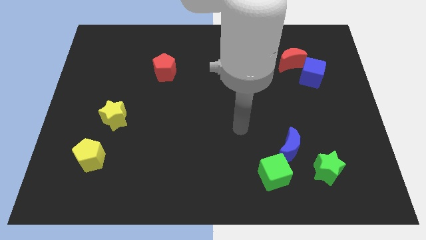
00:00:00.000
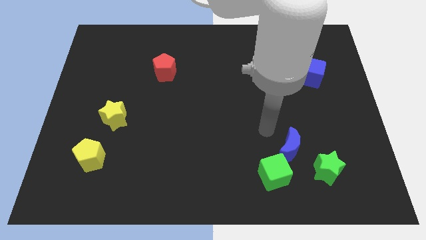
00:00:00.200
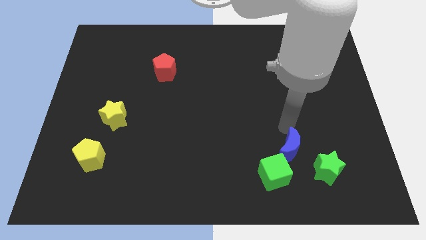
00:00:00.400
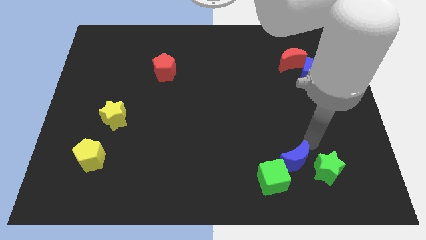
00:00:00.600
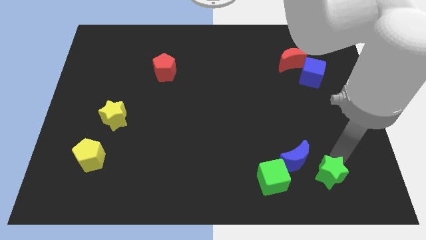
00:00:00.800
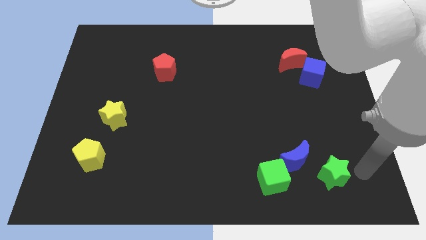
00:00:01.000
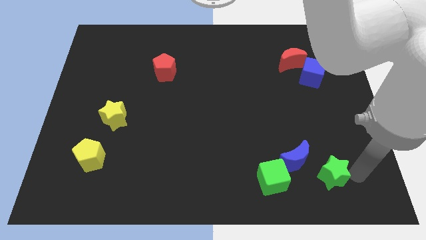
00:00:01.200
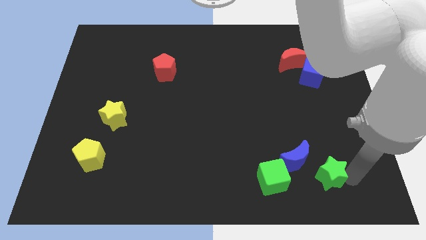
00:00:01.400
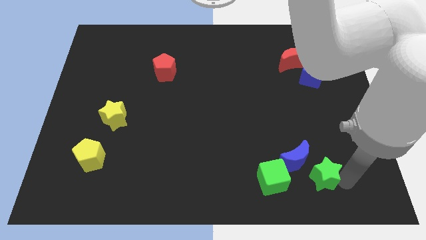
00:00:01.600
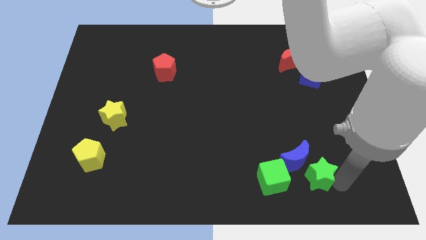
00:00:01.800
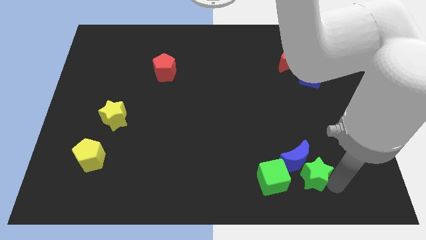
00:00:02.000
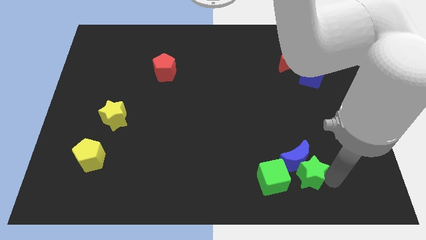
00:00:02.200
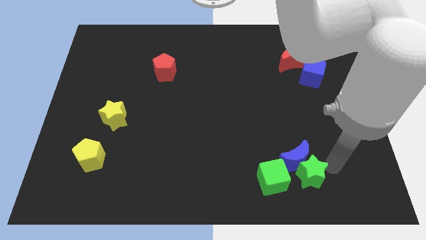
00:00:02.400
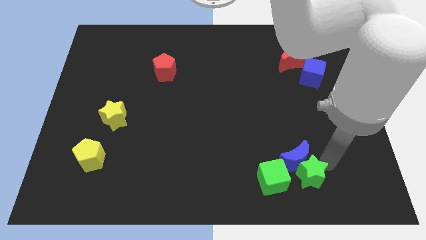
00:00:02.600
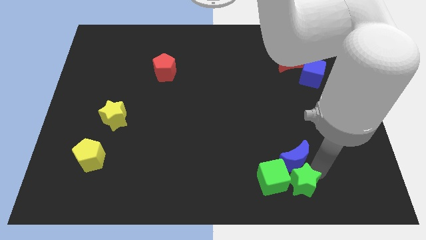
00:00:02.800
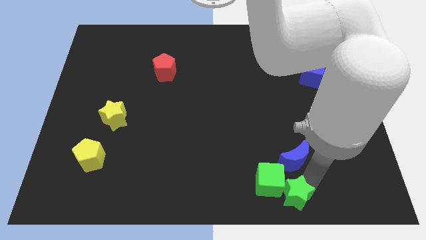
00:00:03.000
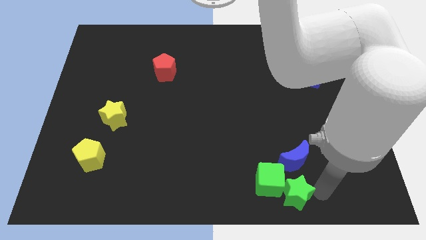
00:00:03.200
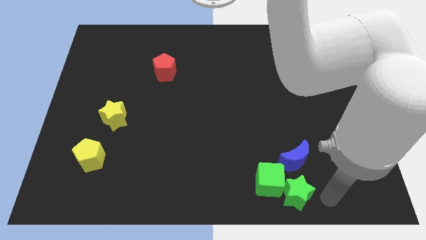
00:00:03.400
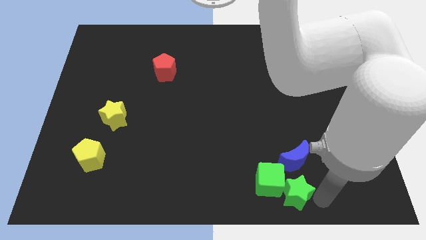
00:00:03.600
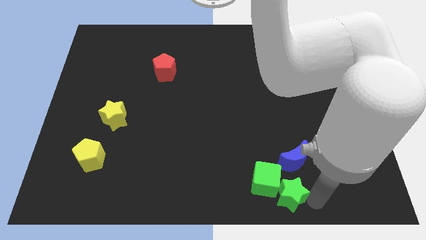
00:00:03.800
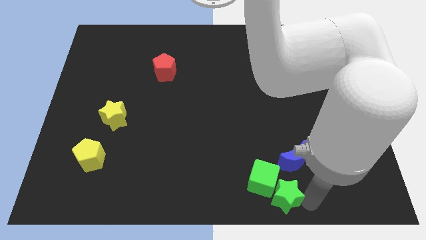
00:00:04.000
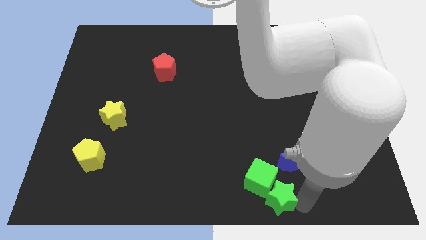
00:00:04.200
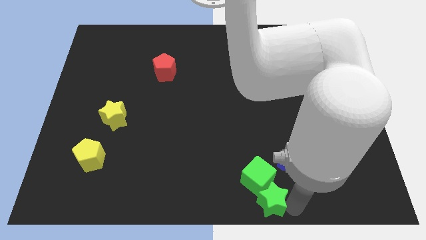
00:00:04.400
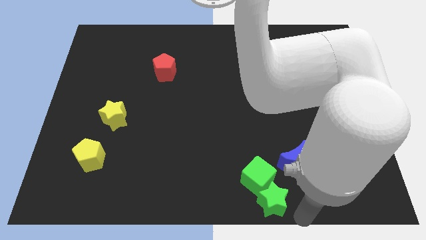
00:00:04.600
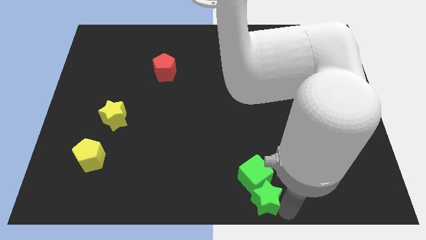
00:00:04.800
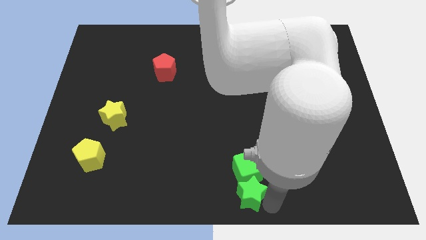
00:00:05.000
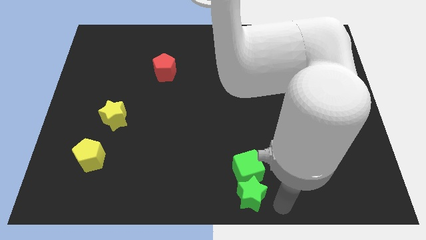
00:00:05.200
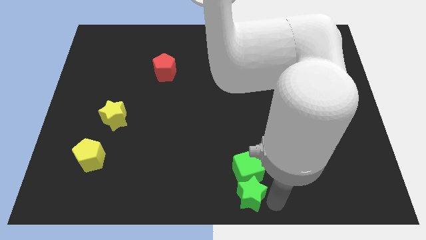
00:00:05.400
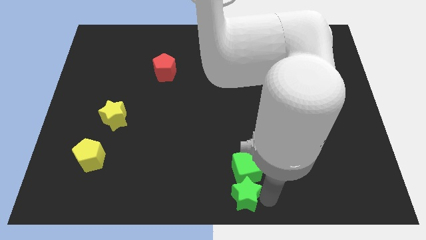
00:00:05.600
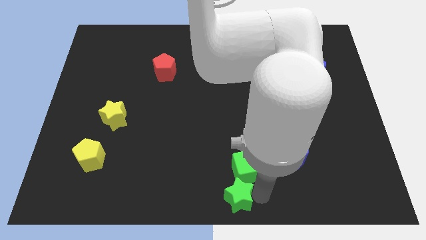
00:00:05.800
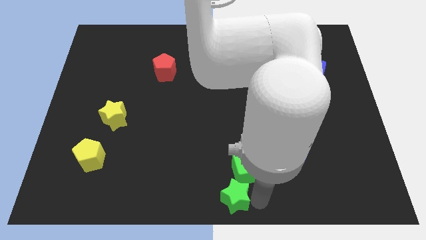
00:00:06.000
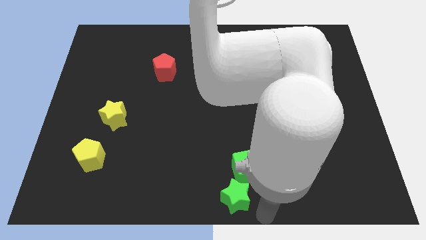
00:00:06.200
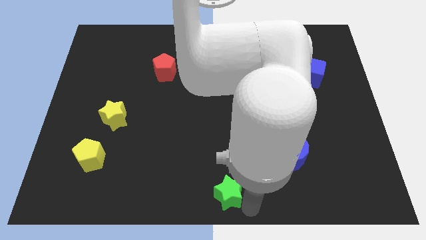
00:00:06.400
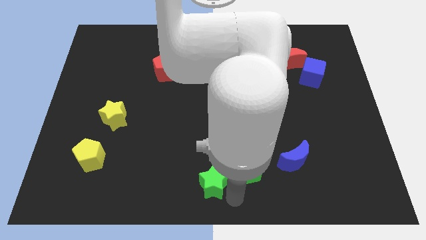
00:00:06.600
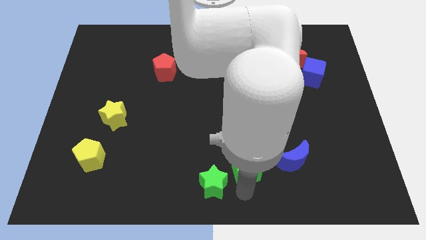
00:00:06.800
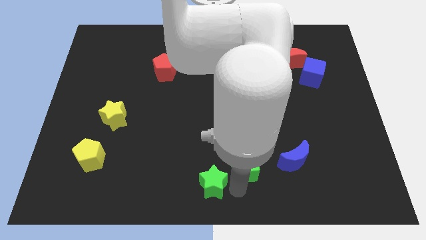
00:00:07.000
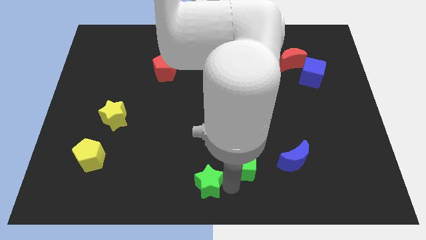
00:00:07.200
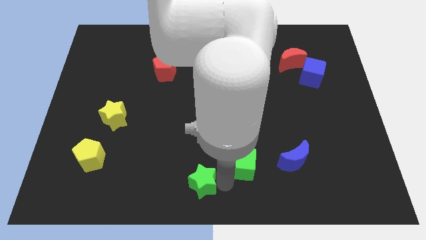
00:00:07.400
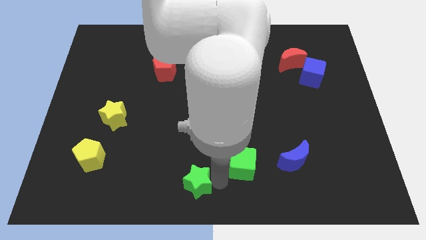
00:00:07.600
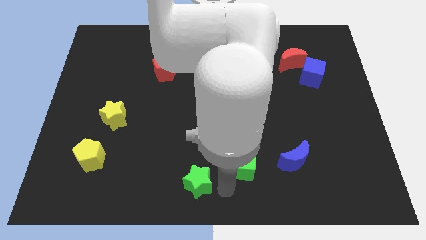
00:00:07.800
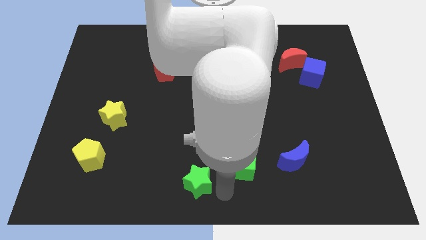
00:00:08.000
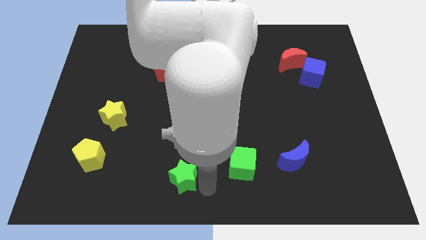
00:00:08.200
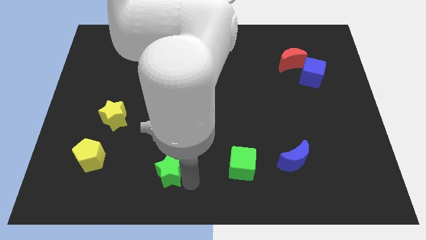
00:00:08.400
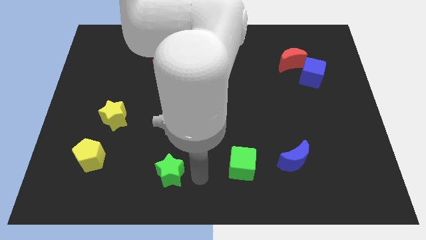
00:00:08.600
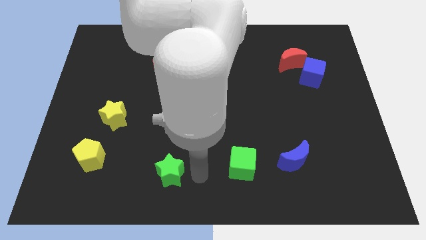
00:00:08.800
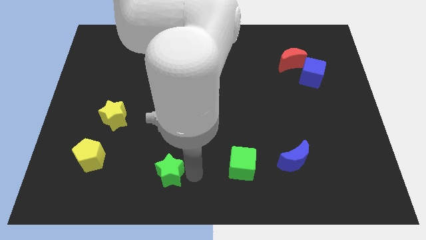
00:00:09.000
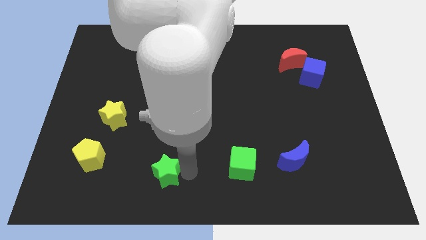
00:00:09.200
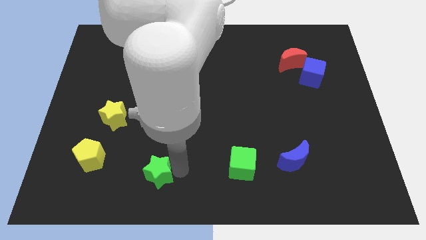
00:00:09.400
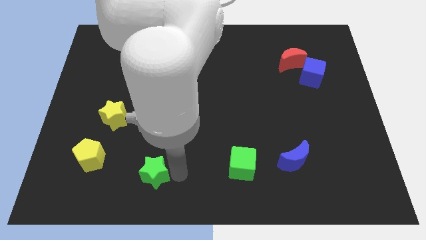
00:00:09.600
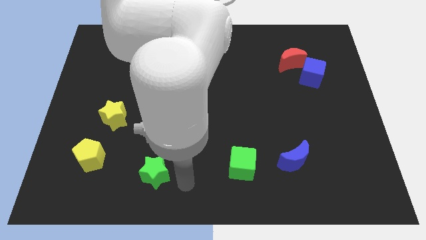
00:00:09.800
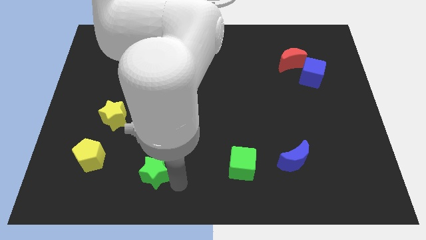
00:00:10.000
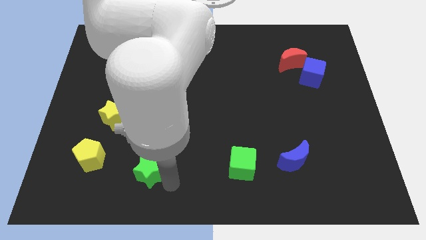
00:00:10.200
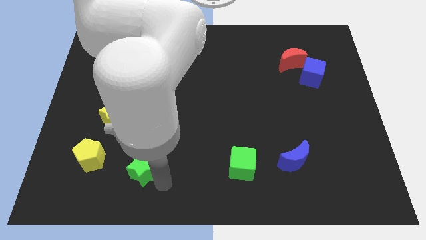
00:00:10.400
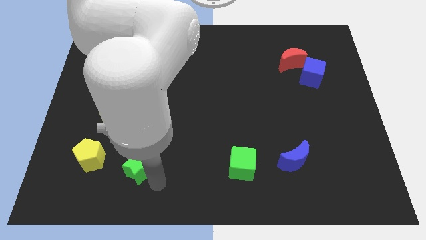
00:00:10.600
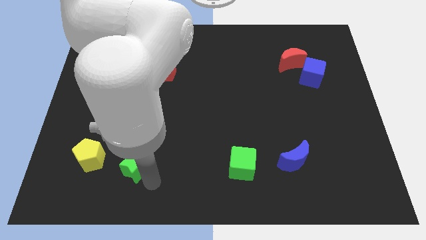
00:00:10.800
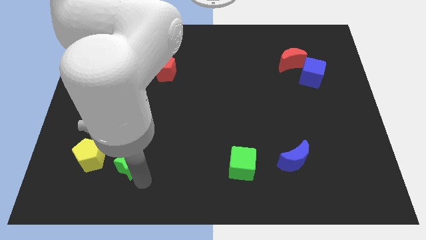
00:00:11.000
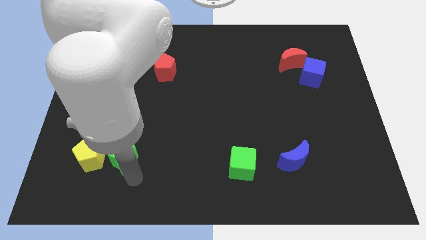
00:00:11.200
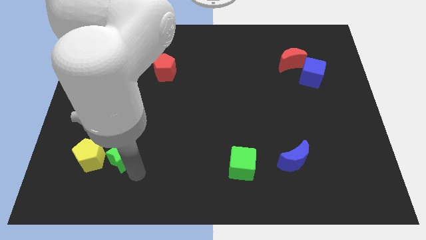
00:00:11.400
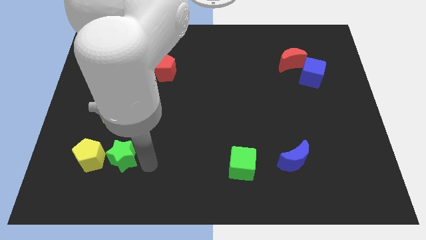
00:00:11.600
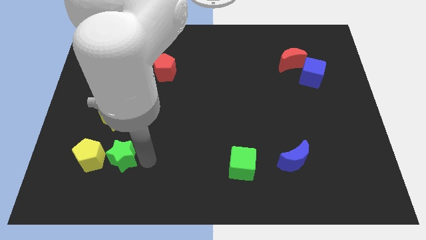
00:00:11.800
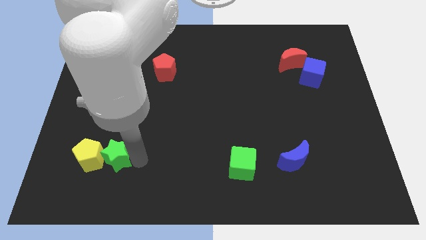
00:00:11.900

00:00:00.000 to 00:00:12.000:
put the green star close to the yellow pentagon

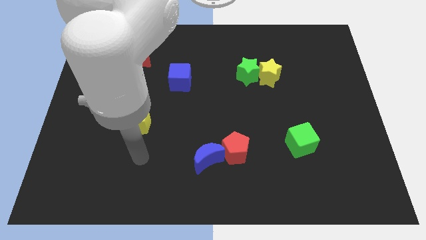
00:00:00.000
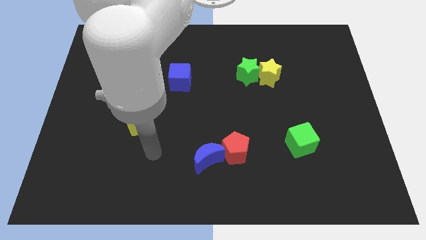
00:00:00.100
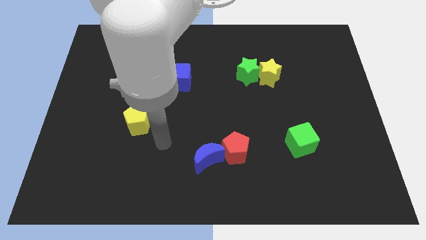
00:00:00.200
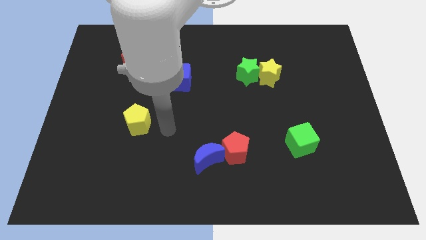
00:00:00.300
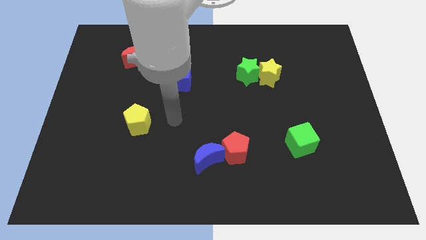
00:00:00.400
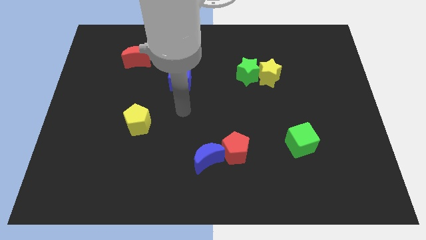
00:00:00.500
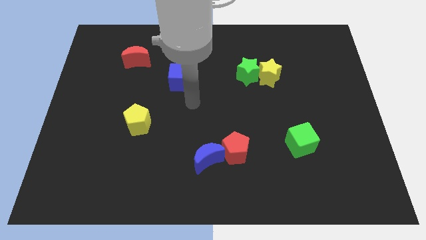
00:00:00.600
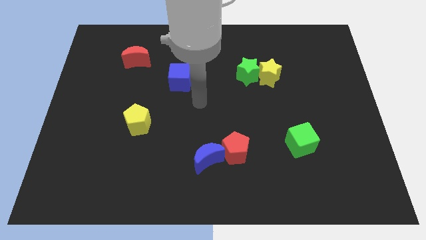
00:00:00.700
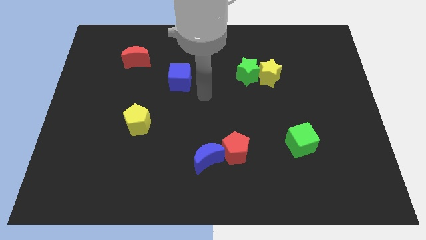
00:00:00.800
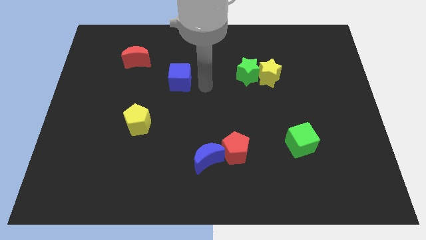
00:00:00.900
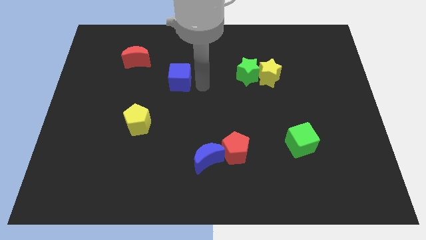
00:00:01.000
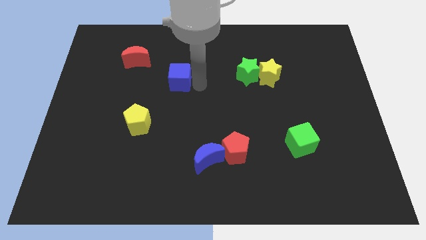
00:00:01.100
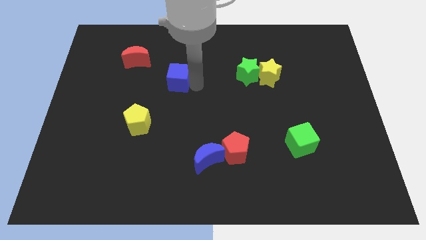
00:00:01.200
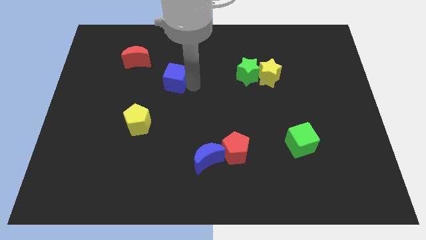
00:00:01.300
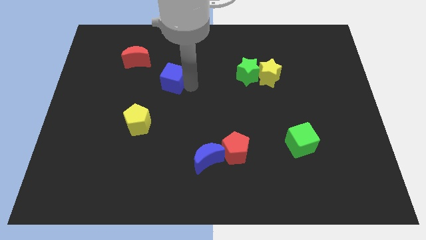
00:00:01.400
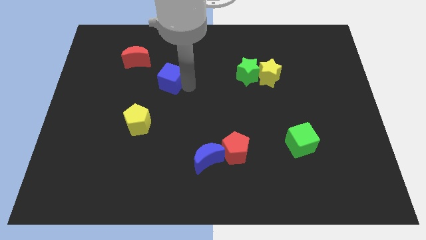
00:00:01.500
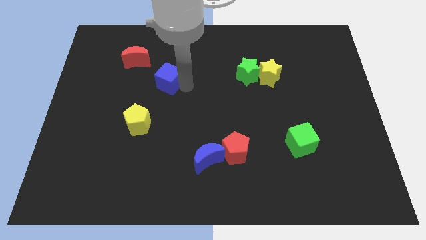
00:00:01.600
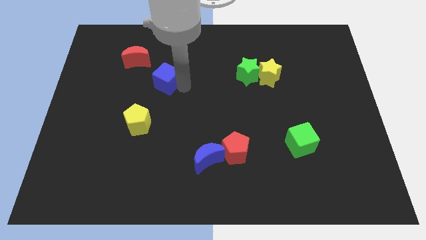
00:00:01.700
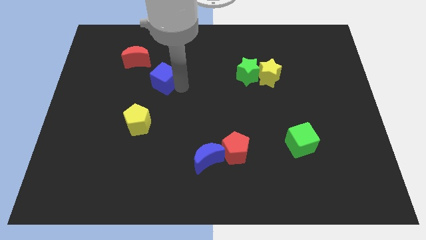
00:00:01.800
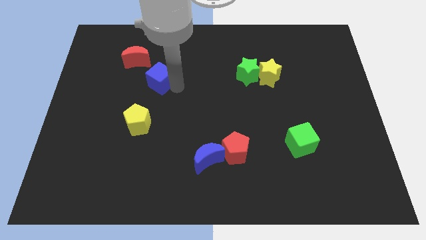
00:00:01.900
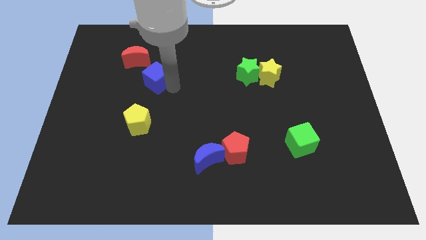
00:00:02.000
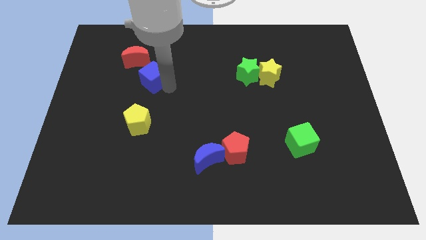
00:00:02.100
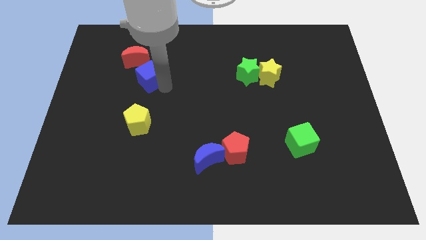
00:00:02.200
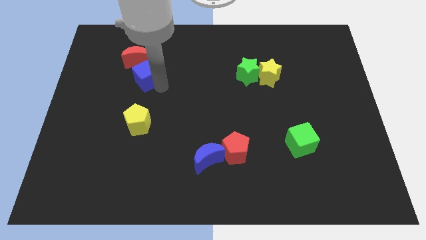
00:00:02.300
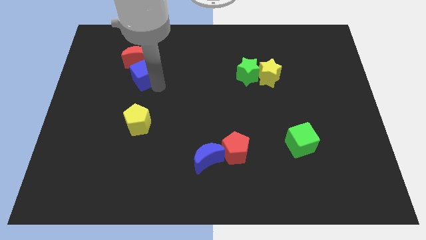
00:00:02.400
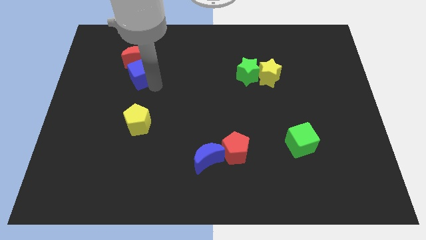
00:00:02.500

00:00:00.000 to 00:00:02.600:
slide the blue cube close to the red moon

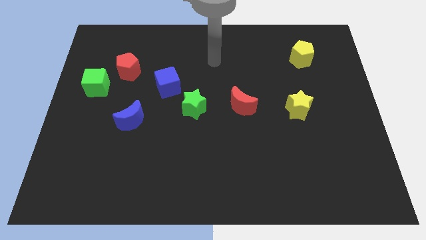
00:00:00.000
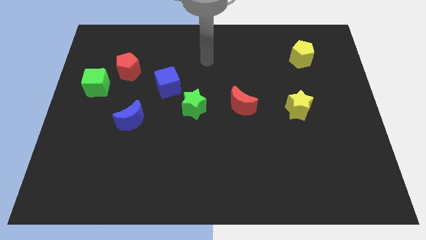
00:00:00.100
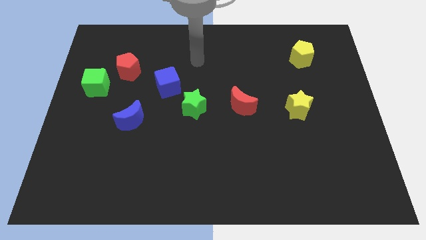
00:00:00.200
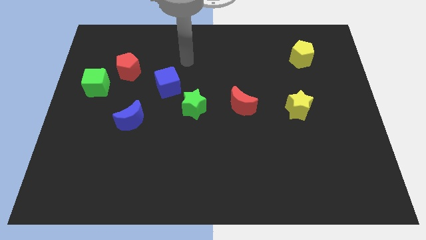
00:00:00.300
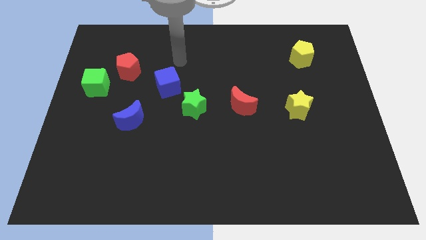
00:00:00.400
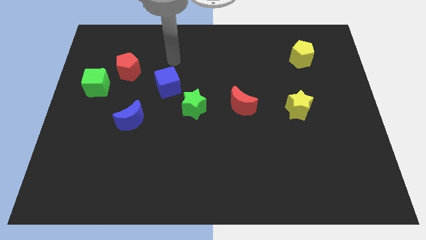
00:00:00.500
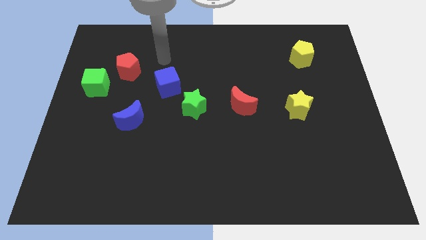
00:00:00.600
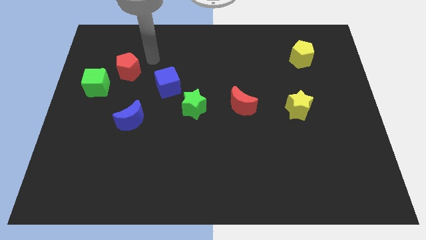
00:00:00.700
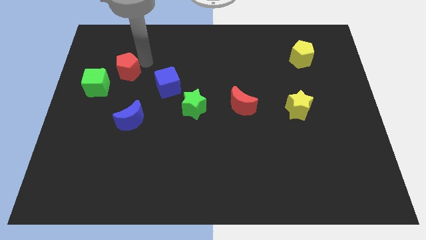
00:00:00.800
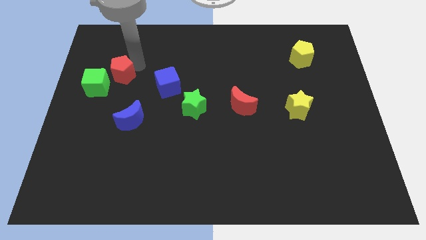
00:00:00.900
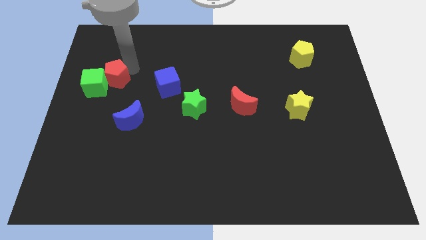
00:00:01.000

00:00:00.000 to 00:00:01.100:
slide the red pentagon next to the green cube
